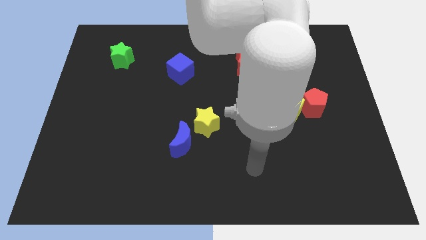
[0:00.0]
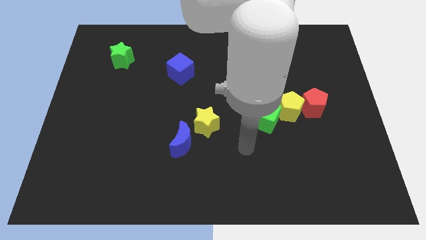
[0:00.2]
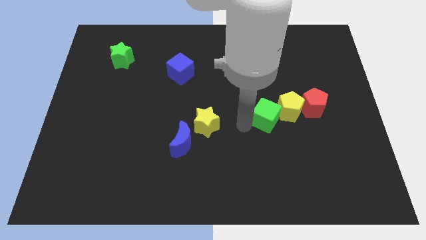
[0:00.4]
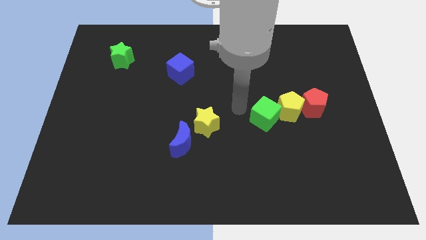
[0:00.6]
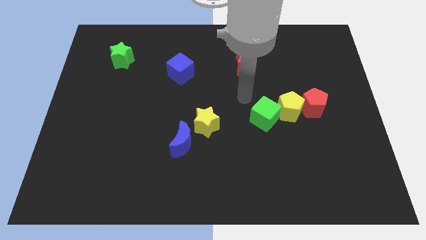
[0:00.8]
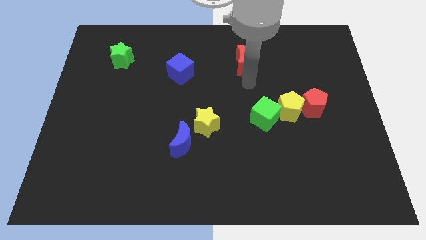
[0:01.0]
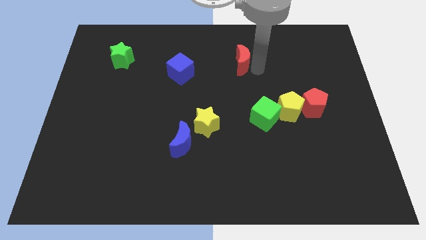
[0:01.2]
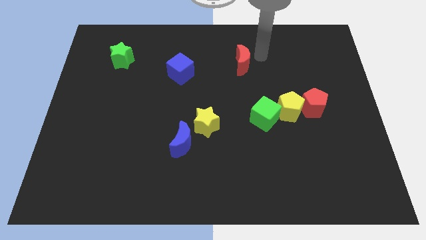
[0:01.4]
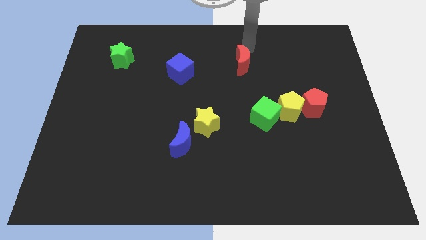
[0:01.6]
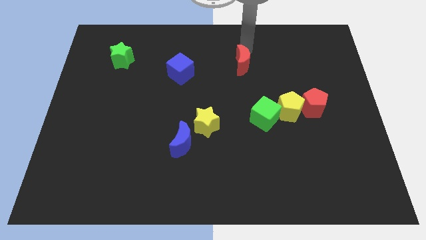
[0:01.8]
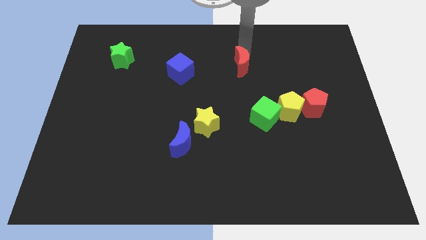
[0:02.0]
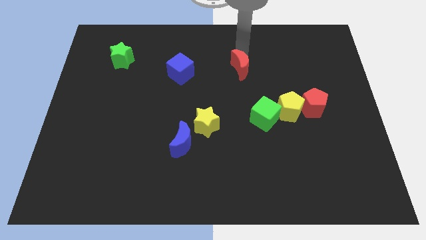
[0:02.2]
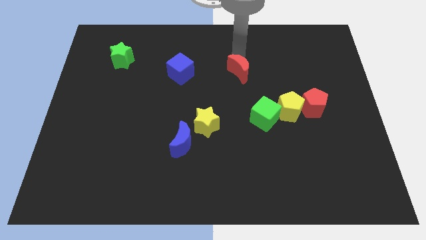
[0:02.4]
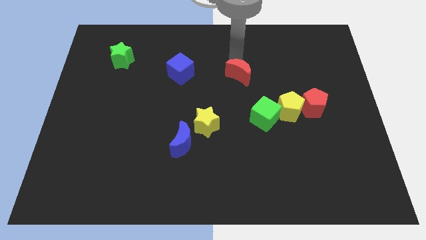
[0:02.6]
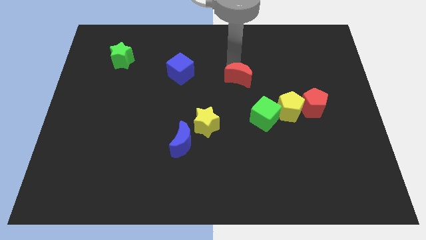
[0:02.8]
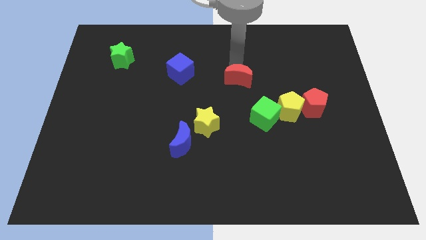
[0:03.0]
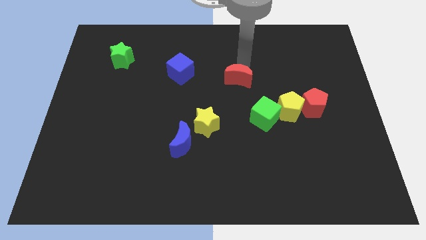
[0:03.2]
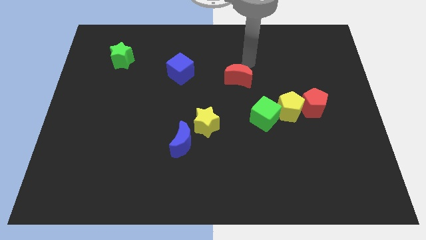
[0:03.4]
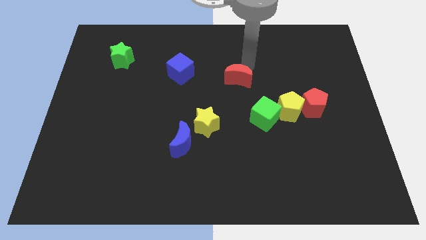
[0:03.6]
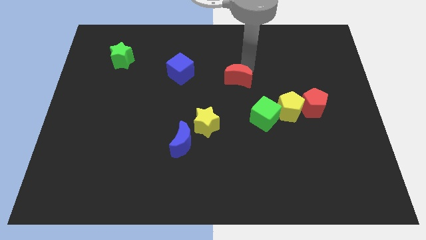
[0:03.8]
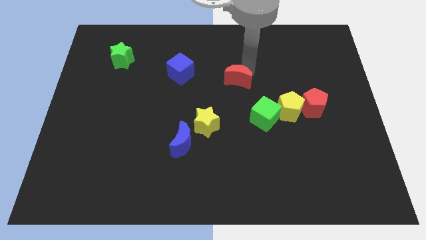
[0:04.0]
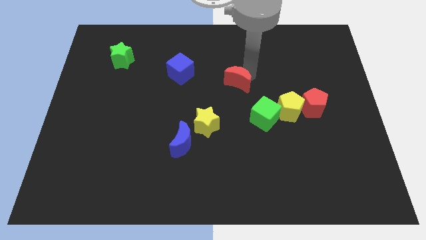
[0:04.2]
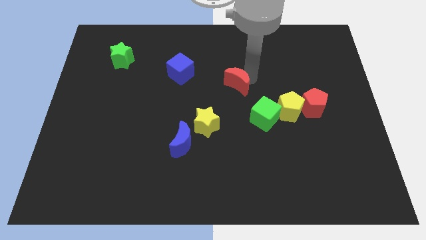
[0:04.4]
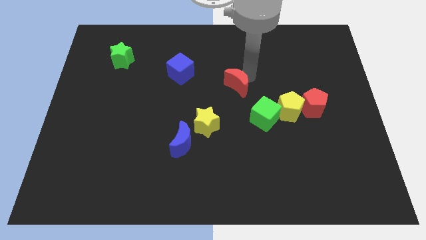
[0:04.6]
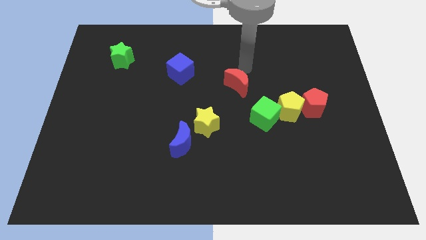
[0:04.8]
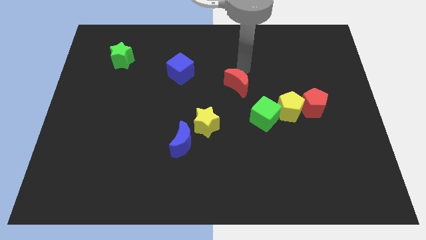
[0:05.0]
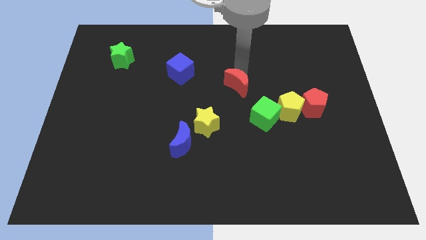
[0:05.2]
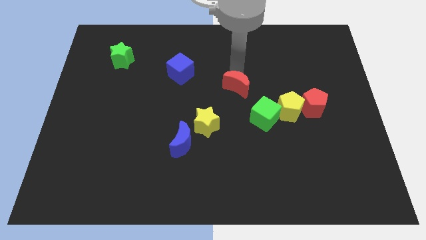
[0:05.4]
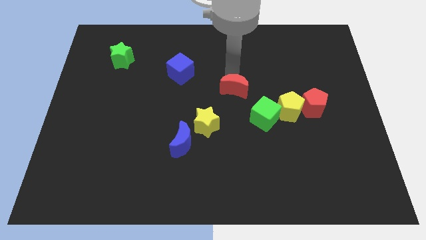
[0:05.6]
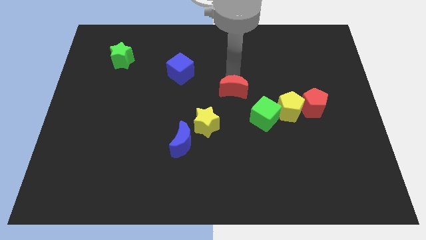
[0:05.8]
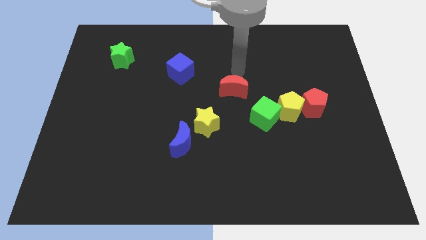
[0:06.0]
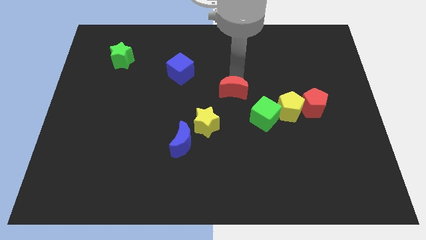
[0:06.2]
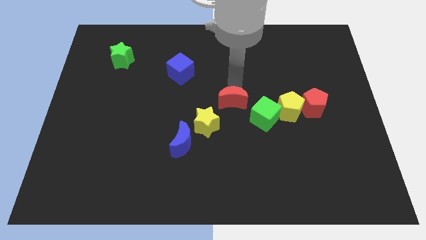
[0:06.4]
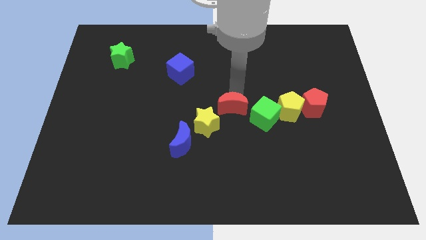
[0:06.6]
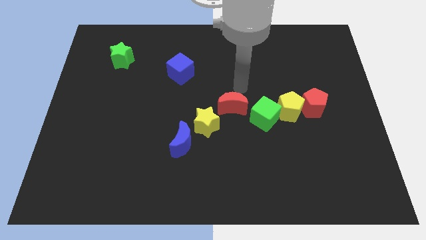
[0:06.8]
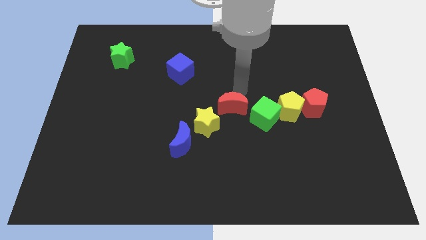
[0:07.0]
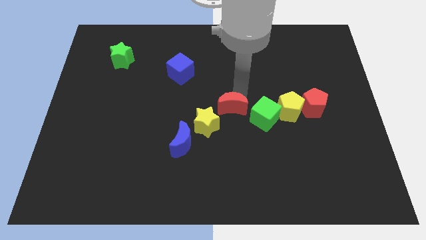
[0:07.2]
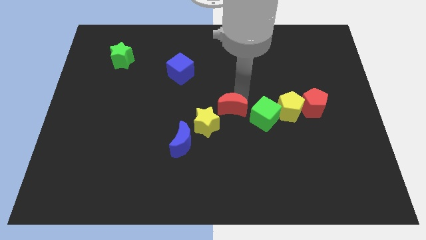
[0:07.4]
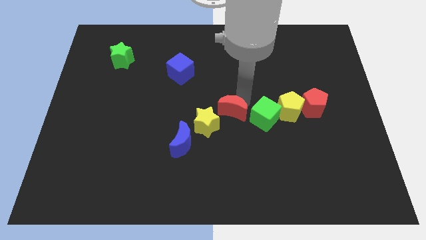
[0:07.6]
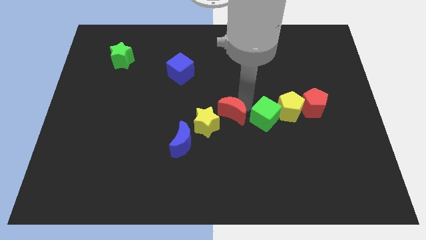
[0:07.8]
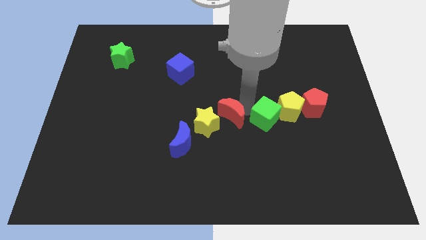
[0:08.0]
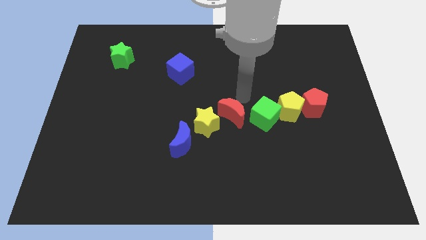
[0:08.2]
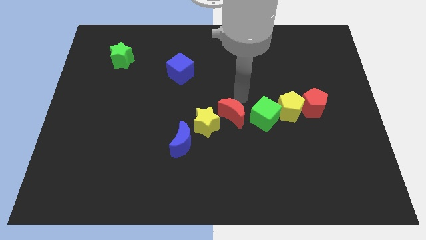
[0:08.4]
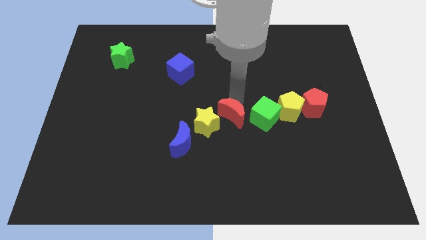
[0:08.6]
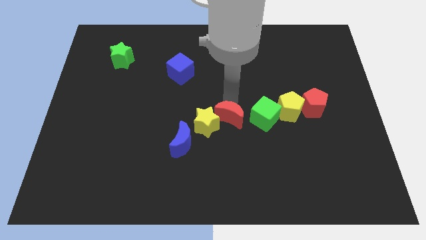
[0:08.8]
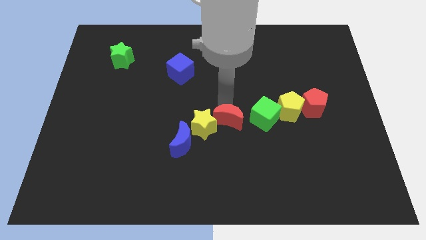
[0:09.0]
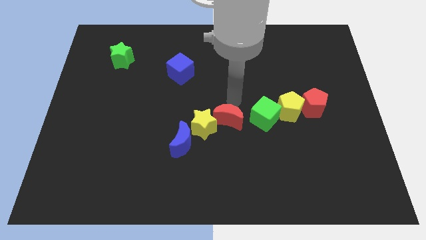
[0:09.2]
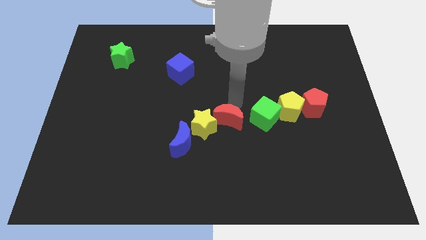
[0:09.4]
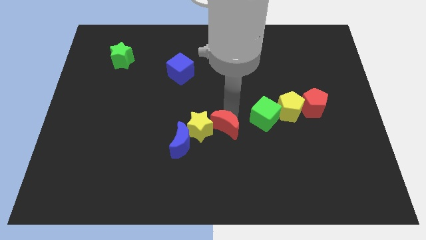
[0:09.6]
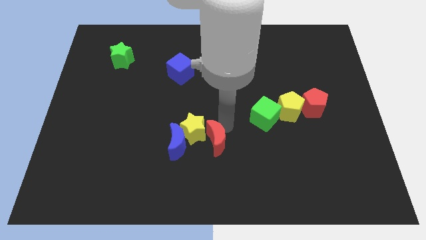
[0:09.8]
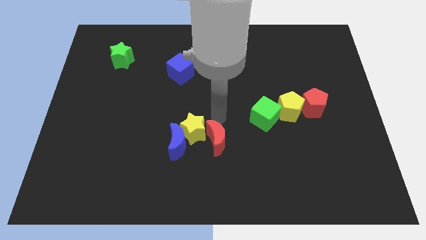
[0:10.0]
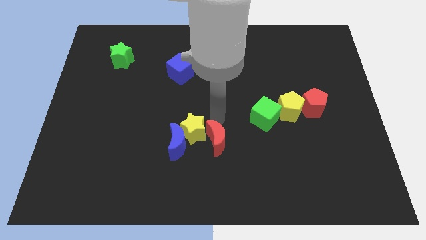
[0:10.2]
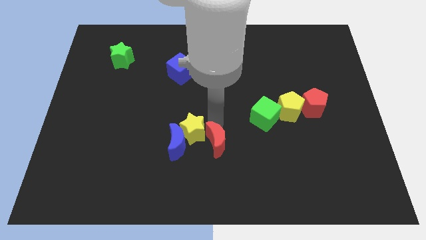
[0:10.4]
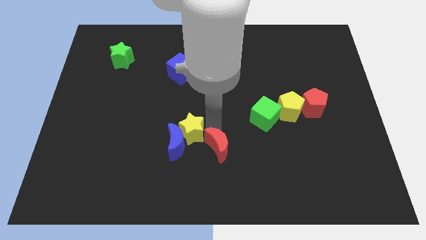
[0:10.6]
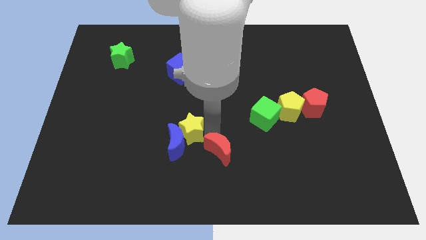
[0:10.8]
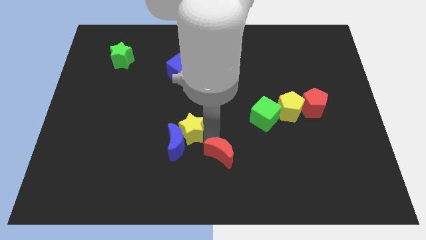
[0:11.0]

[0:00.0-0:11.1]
push the red moon to the bottom side

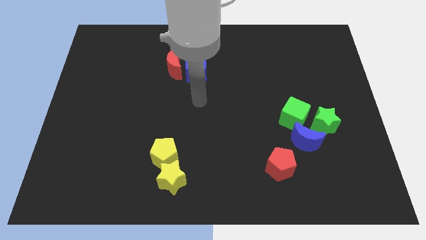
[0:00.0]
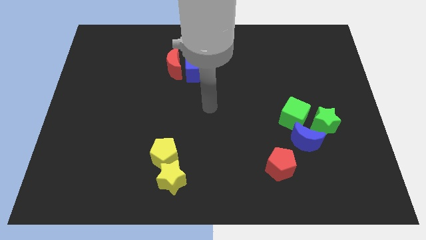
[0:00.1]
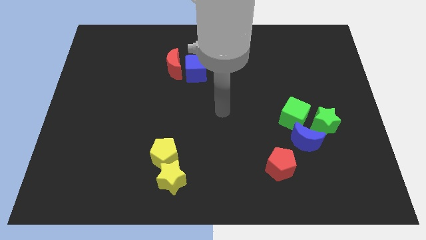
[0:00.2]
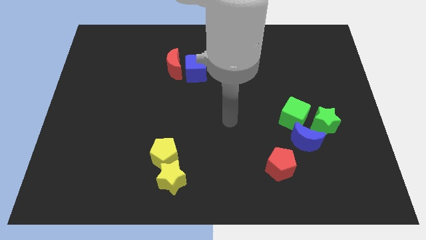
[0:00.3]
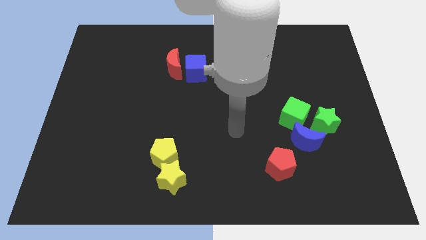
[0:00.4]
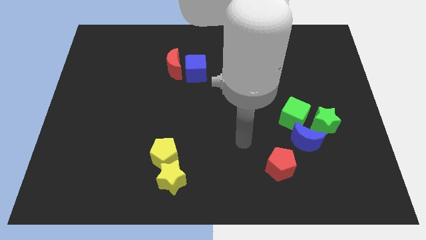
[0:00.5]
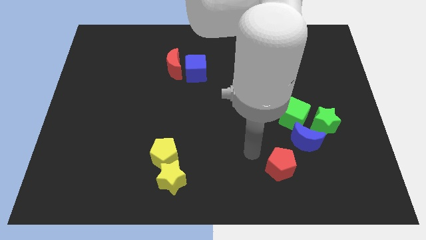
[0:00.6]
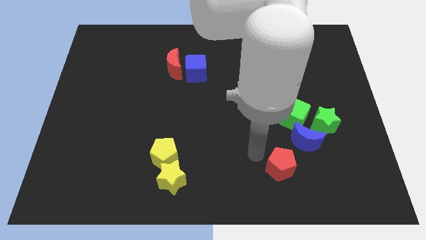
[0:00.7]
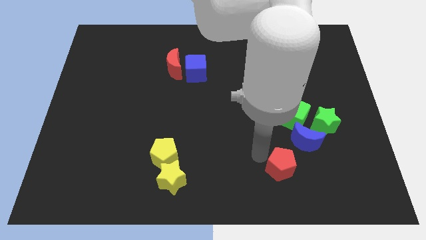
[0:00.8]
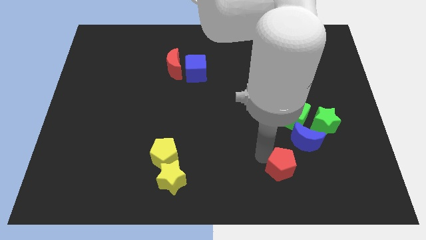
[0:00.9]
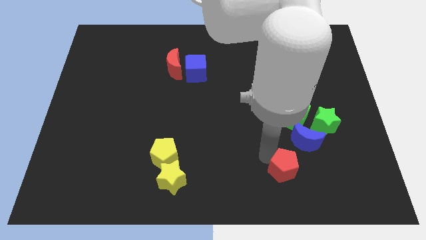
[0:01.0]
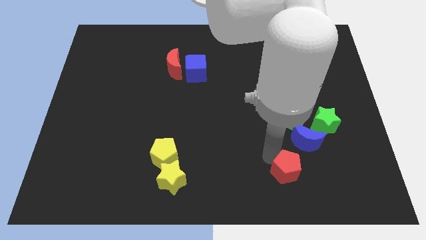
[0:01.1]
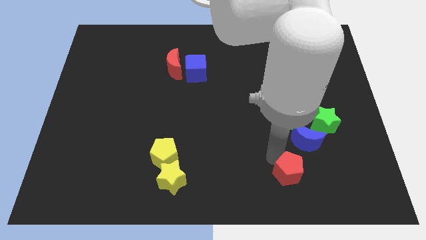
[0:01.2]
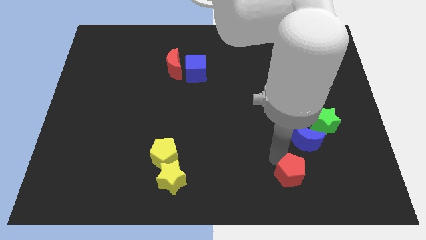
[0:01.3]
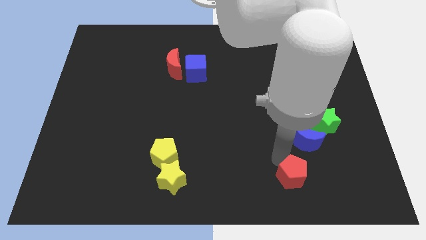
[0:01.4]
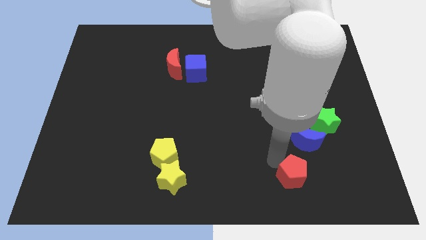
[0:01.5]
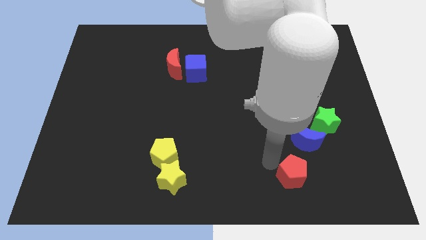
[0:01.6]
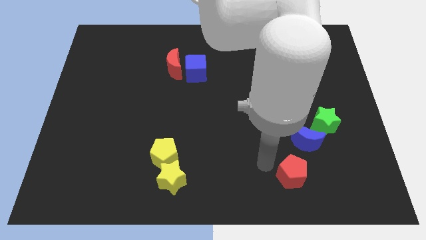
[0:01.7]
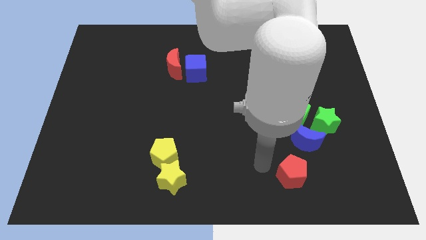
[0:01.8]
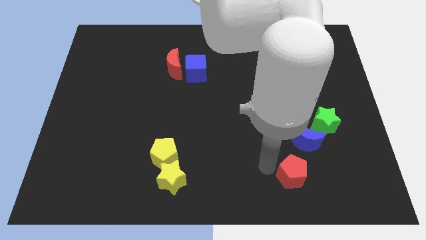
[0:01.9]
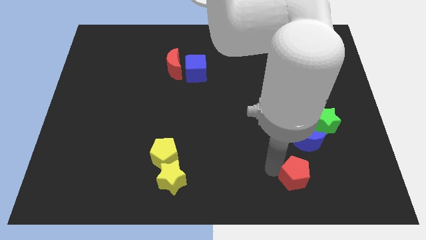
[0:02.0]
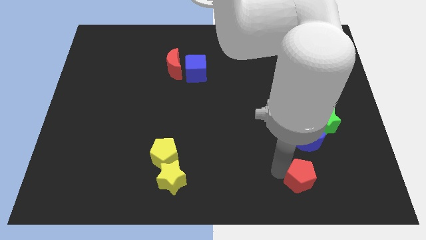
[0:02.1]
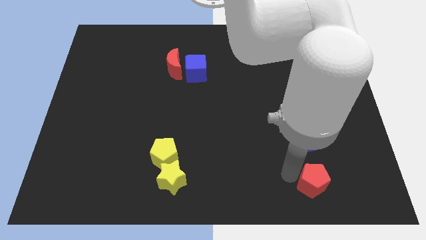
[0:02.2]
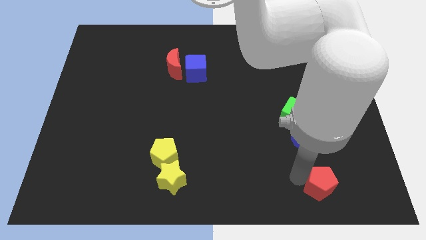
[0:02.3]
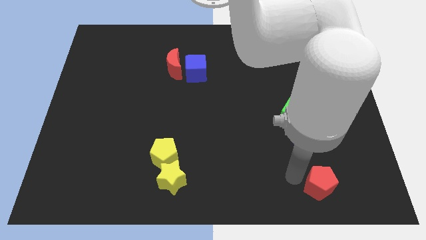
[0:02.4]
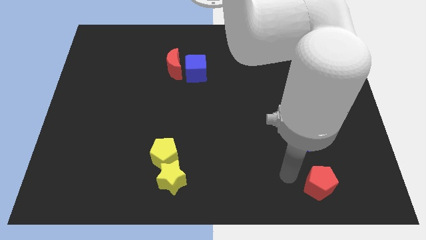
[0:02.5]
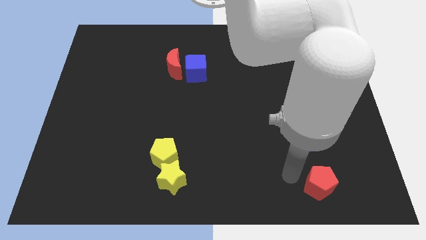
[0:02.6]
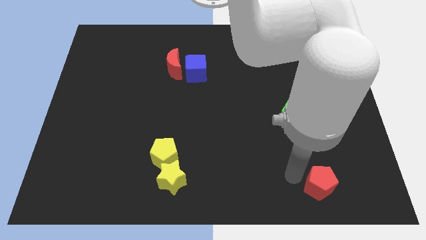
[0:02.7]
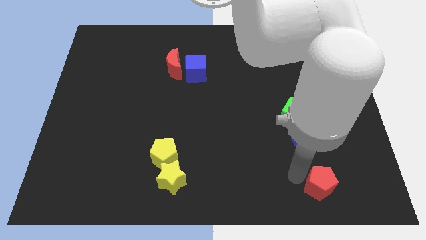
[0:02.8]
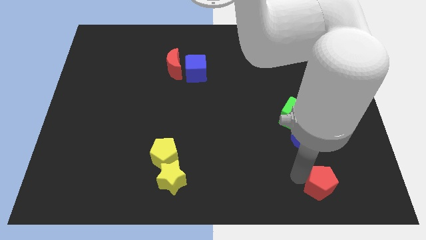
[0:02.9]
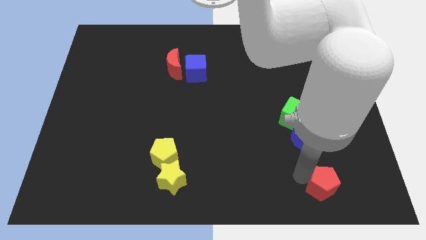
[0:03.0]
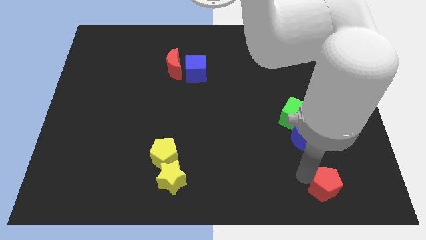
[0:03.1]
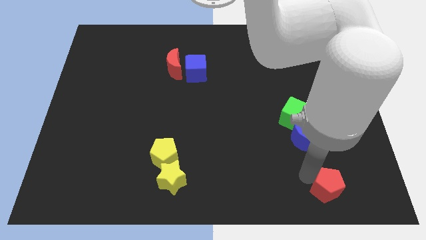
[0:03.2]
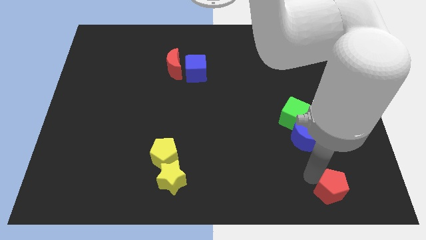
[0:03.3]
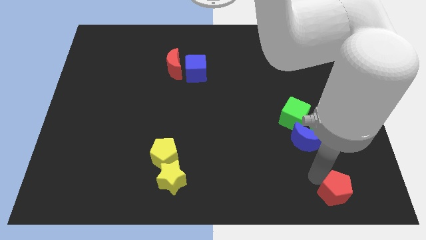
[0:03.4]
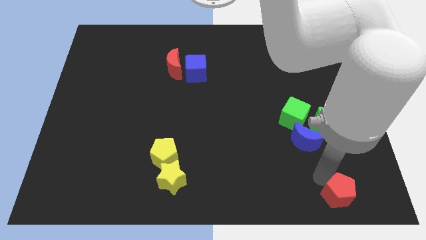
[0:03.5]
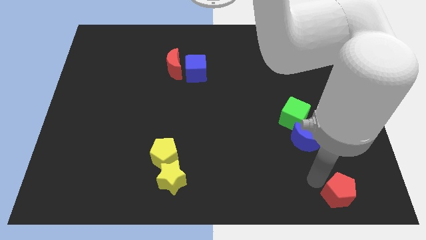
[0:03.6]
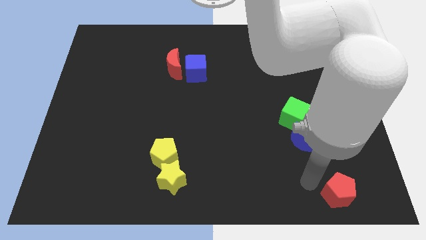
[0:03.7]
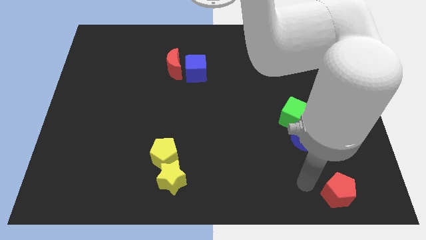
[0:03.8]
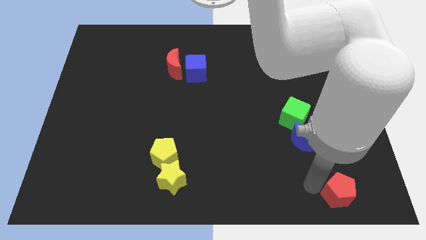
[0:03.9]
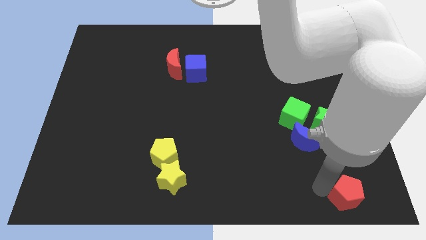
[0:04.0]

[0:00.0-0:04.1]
move the red pentagon to the lower right corner
